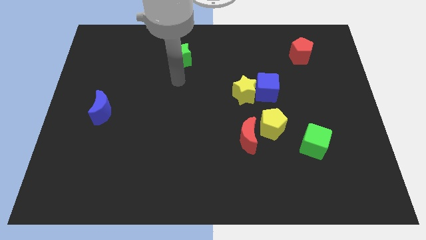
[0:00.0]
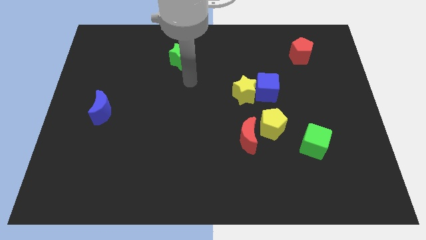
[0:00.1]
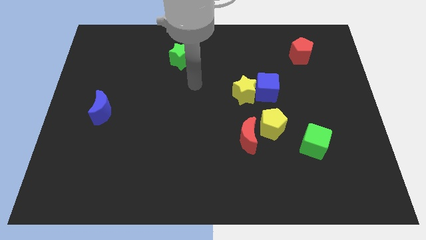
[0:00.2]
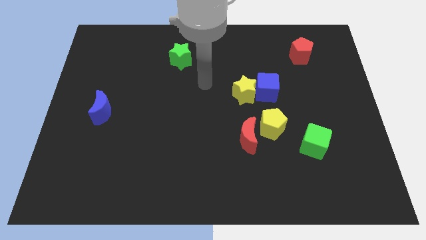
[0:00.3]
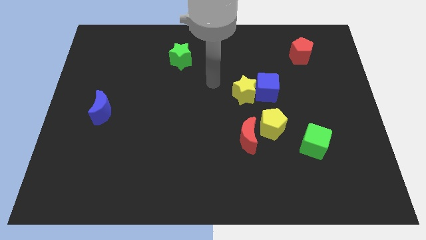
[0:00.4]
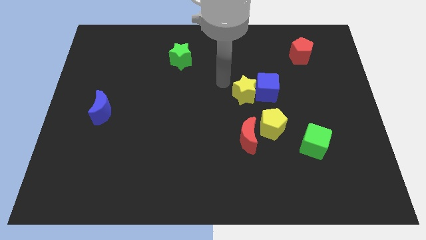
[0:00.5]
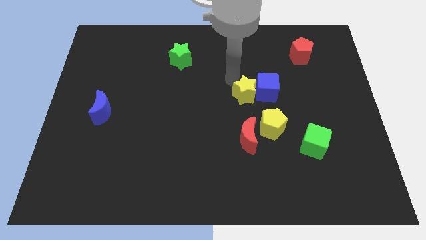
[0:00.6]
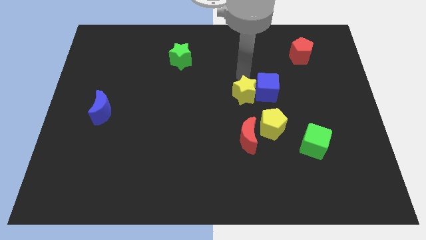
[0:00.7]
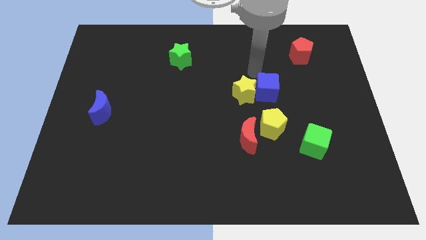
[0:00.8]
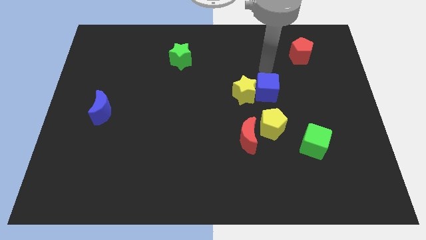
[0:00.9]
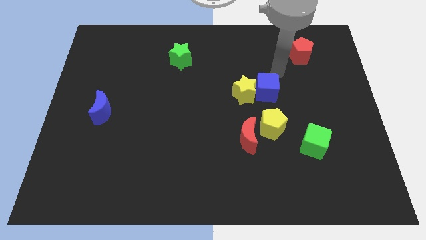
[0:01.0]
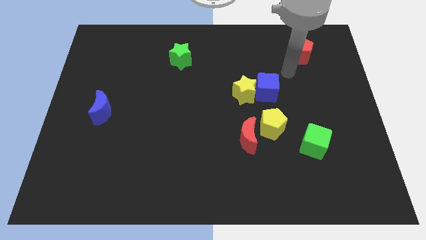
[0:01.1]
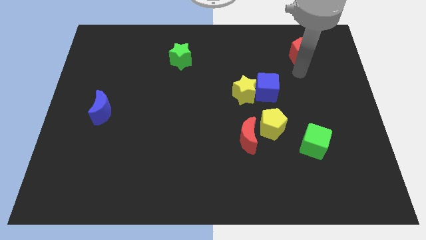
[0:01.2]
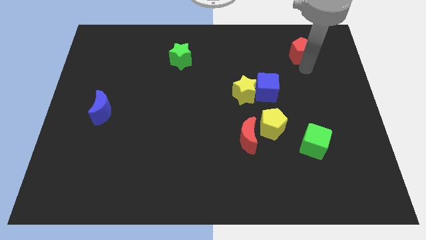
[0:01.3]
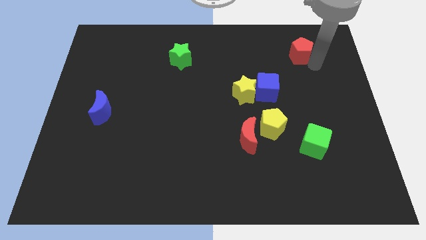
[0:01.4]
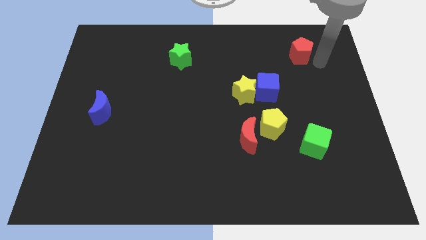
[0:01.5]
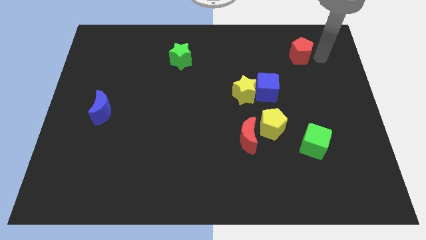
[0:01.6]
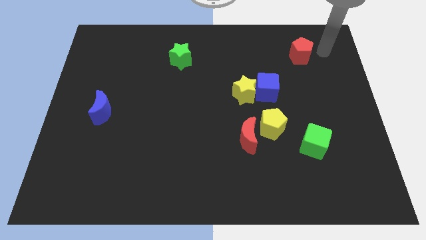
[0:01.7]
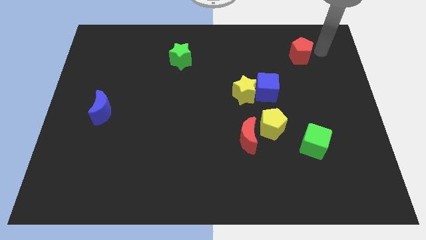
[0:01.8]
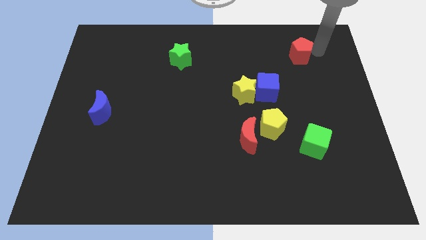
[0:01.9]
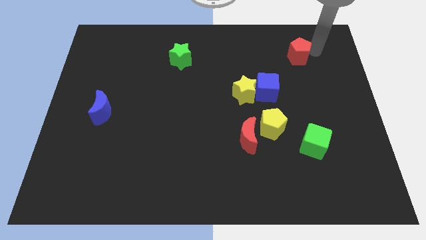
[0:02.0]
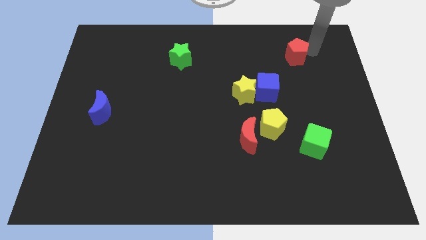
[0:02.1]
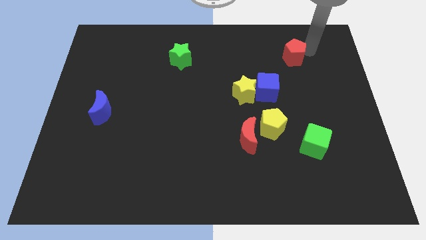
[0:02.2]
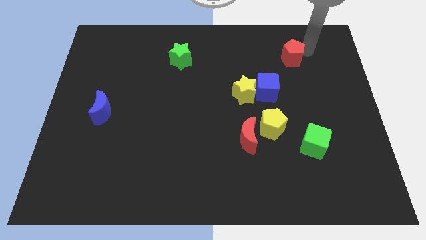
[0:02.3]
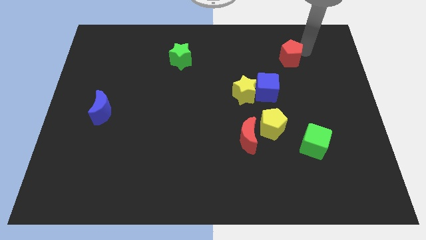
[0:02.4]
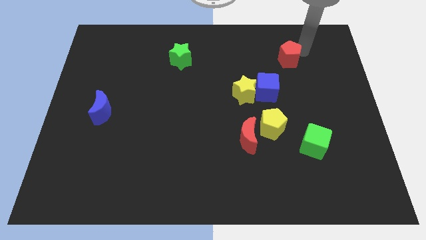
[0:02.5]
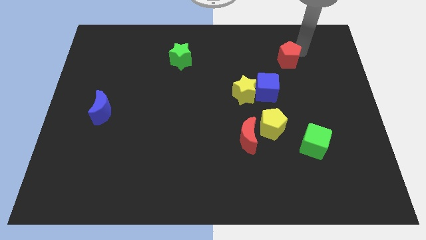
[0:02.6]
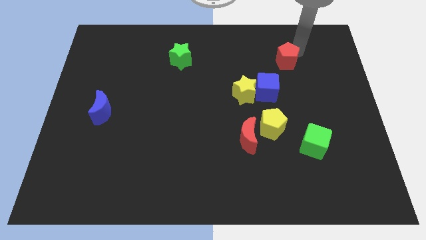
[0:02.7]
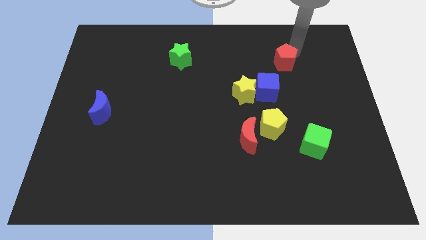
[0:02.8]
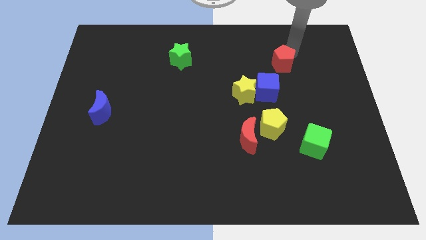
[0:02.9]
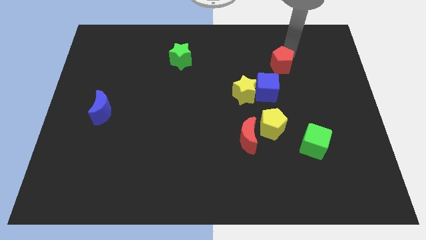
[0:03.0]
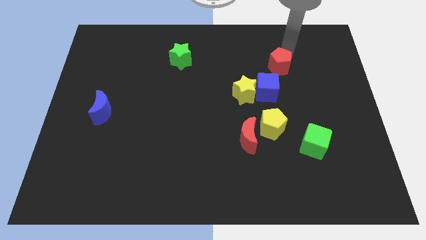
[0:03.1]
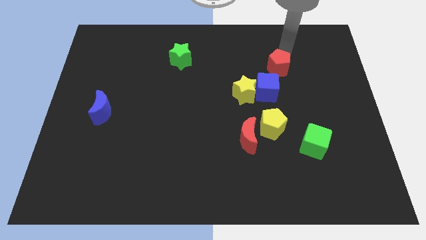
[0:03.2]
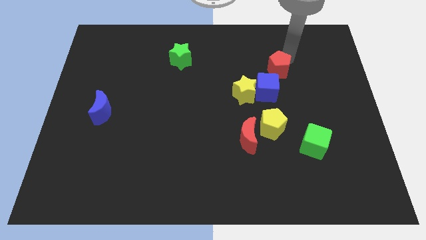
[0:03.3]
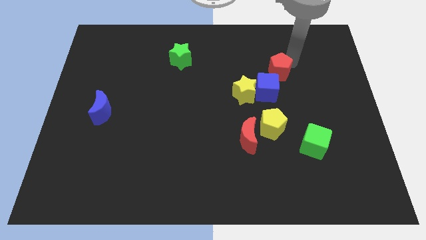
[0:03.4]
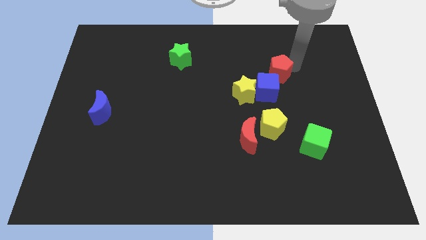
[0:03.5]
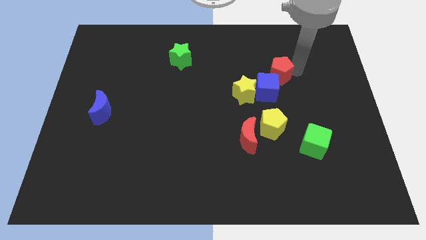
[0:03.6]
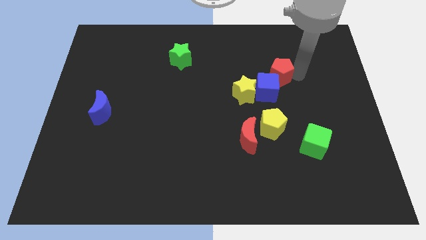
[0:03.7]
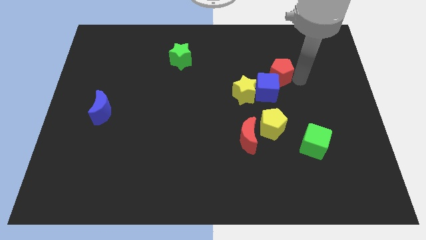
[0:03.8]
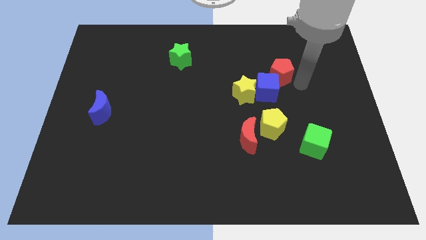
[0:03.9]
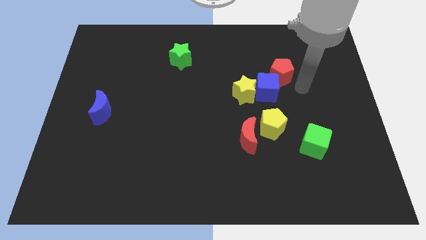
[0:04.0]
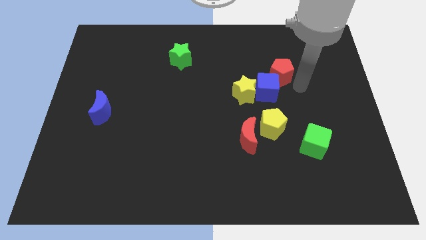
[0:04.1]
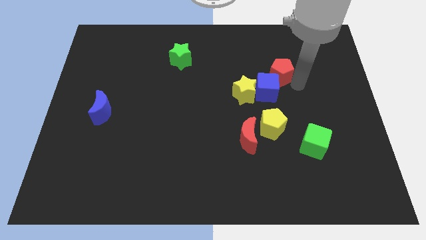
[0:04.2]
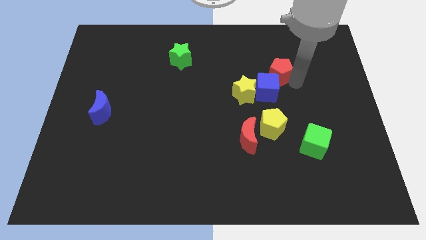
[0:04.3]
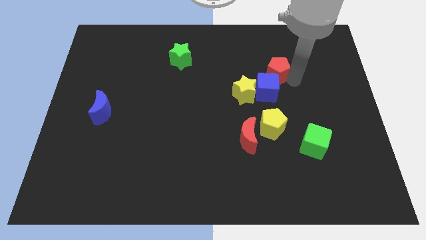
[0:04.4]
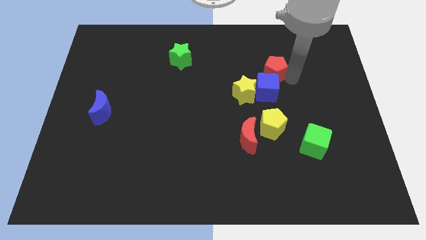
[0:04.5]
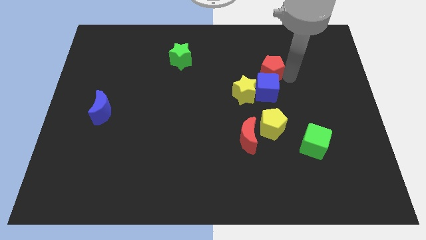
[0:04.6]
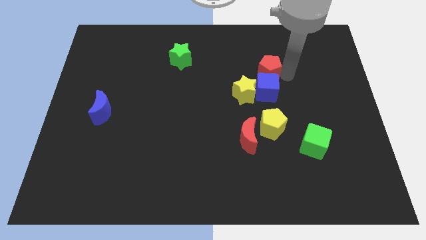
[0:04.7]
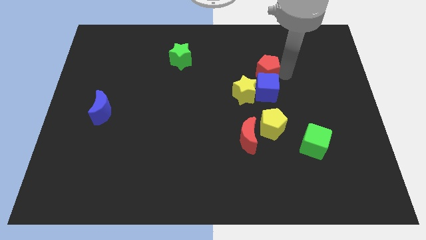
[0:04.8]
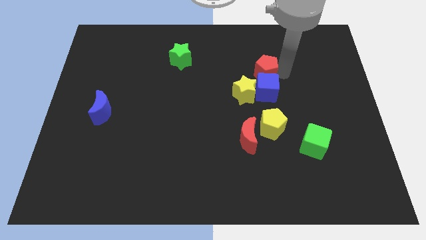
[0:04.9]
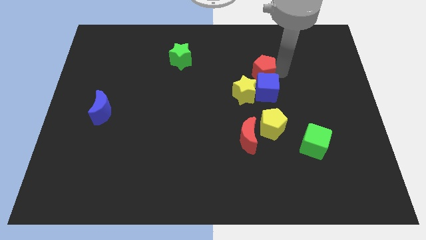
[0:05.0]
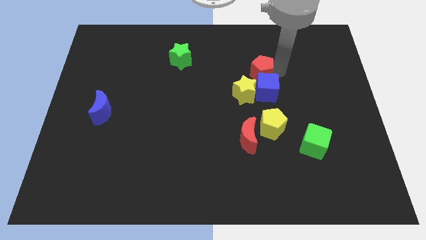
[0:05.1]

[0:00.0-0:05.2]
slide the red pentagon to the top side of the yellow star

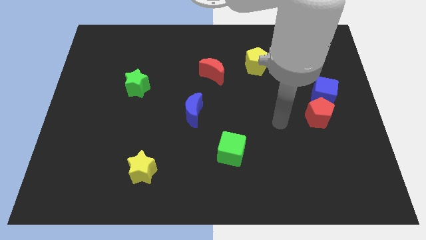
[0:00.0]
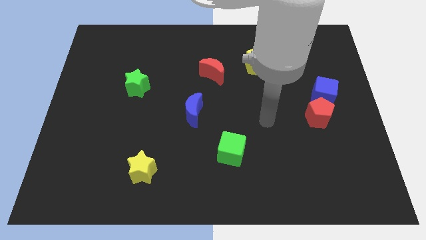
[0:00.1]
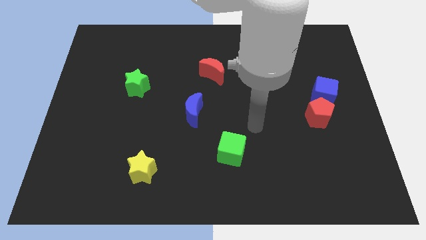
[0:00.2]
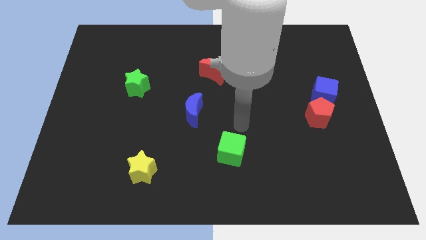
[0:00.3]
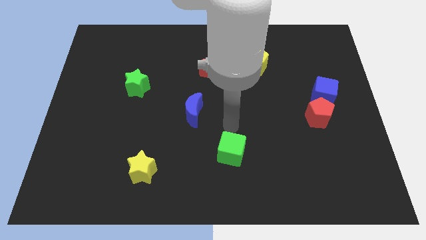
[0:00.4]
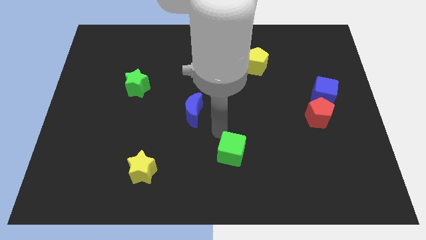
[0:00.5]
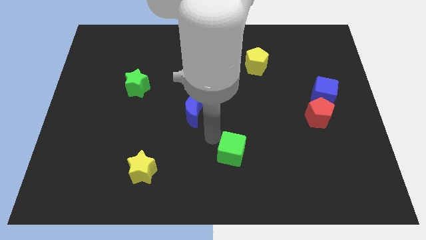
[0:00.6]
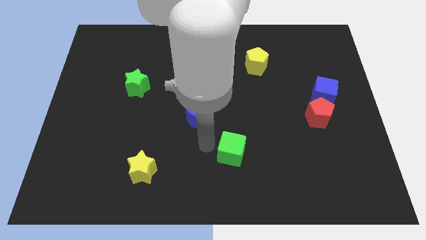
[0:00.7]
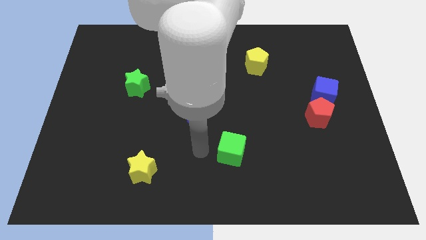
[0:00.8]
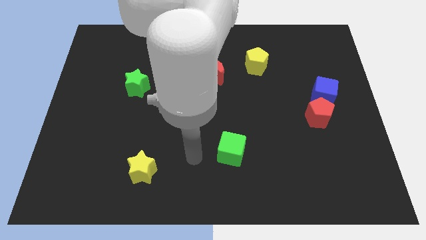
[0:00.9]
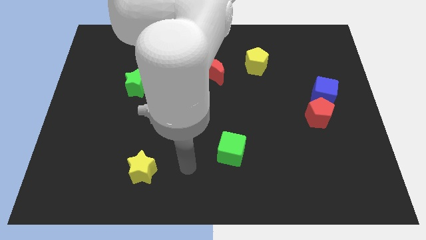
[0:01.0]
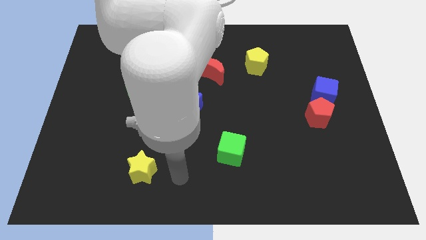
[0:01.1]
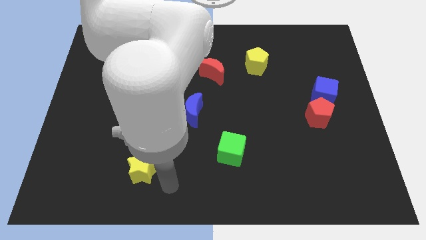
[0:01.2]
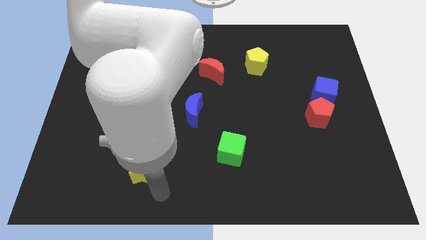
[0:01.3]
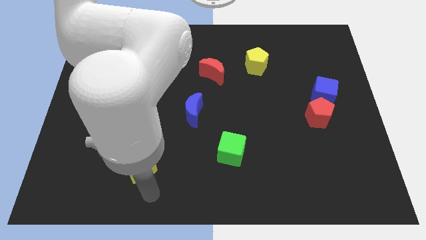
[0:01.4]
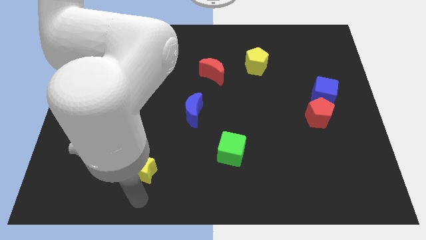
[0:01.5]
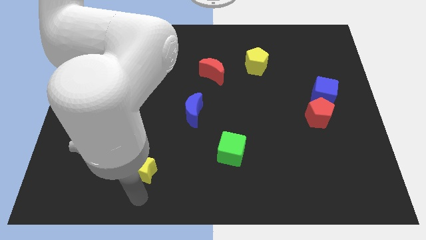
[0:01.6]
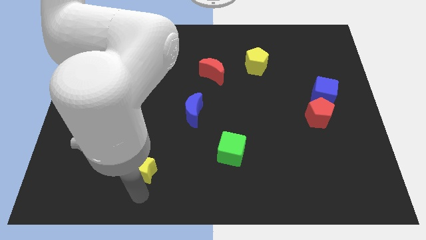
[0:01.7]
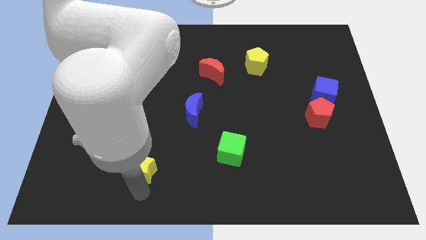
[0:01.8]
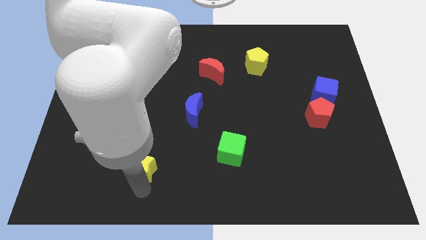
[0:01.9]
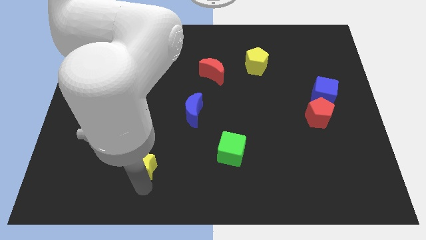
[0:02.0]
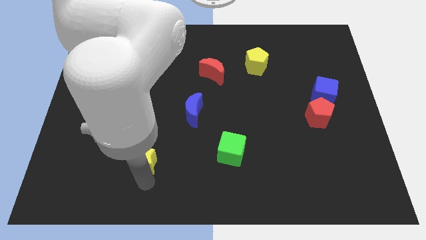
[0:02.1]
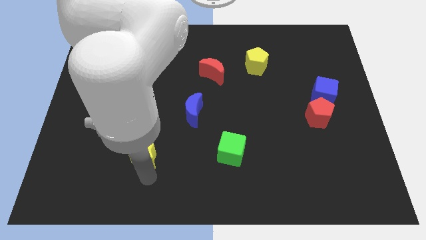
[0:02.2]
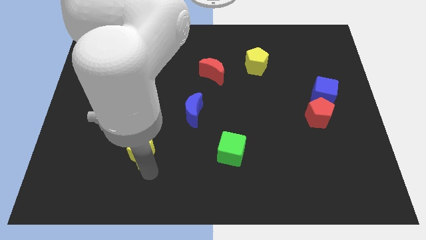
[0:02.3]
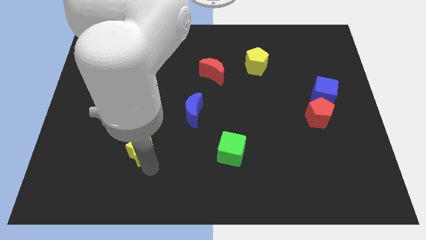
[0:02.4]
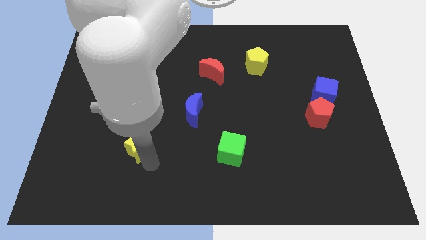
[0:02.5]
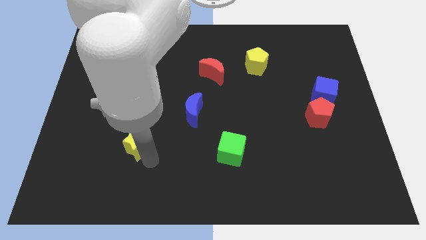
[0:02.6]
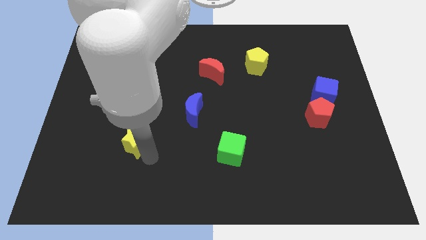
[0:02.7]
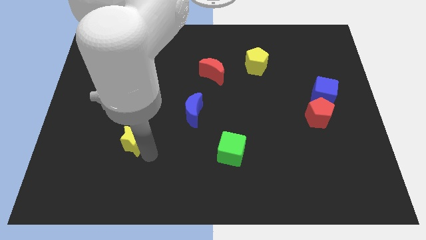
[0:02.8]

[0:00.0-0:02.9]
push the yellow star below the green star
